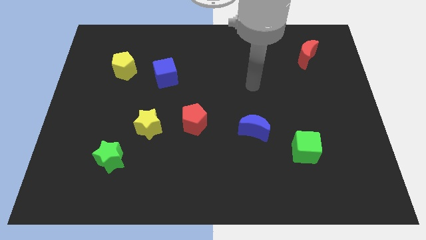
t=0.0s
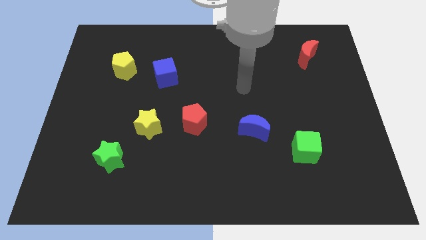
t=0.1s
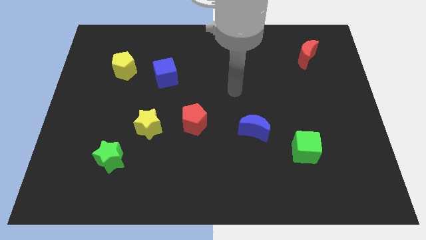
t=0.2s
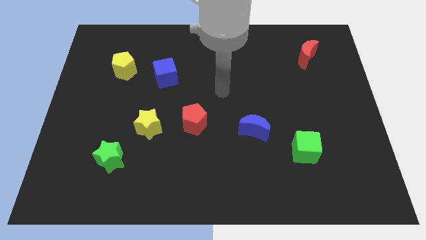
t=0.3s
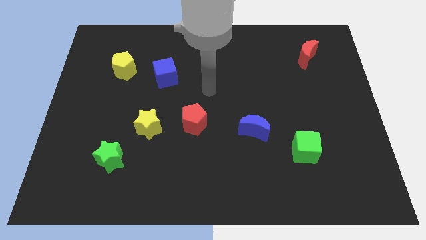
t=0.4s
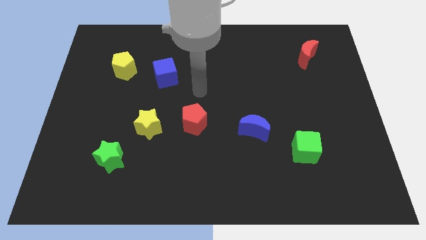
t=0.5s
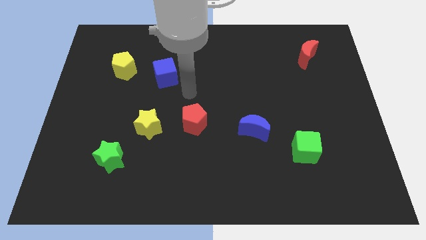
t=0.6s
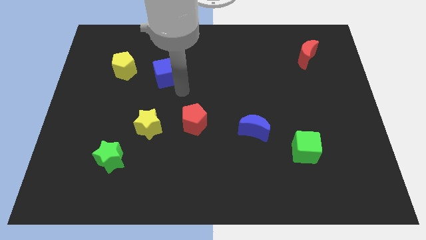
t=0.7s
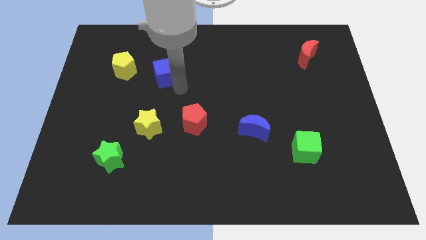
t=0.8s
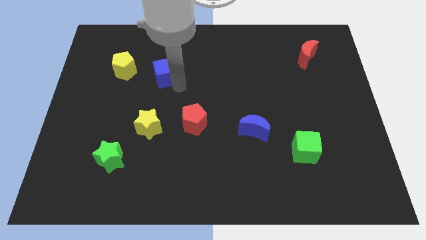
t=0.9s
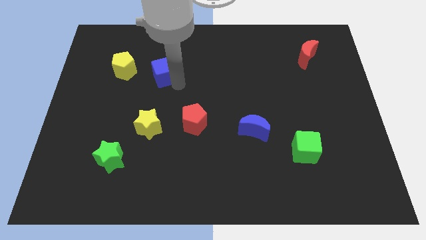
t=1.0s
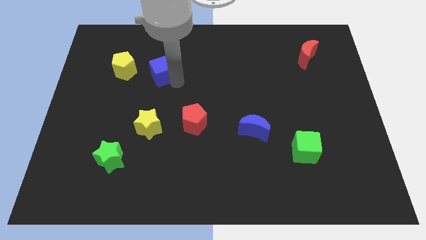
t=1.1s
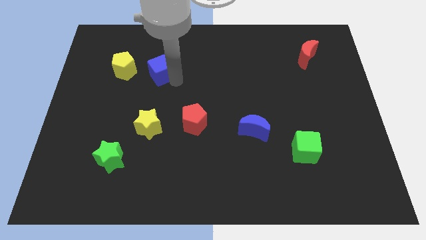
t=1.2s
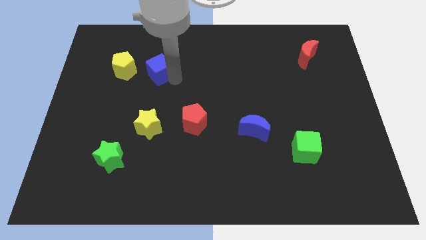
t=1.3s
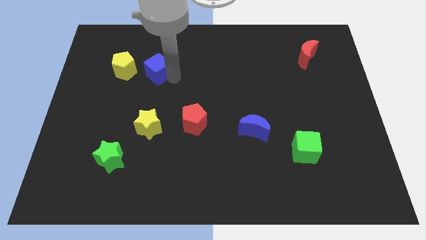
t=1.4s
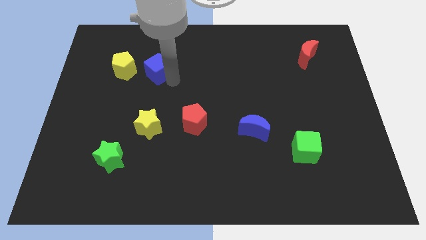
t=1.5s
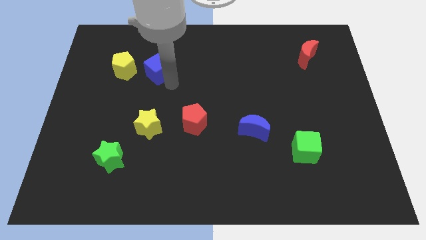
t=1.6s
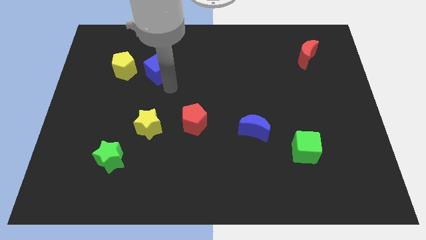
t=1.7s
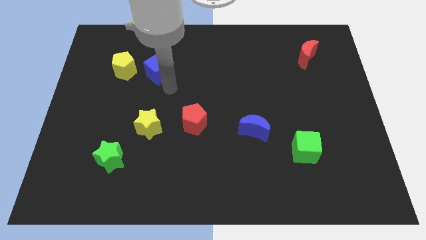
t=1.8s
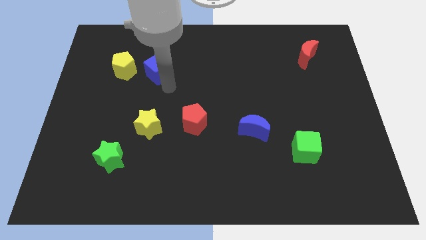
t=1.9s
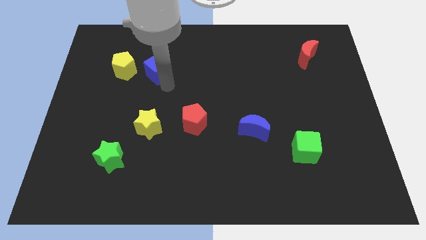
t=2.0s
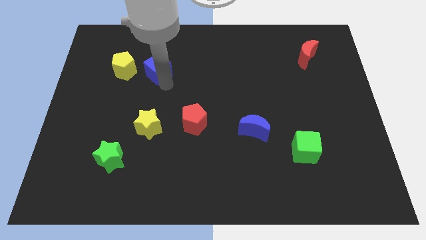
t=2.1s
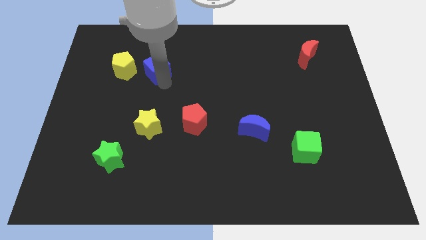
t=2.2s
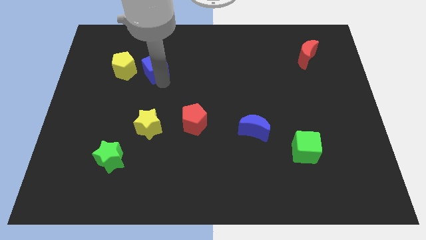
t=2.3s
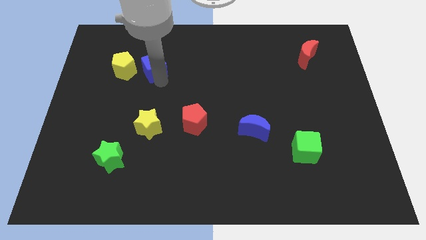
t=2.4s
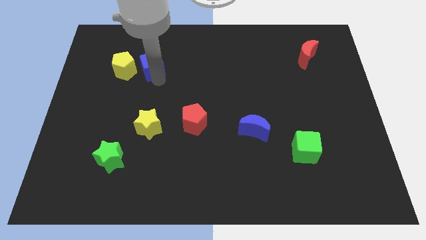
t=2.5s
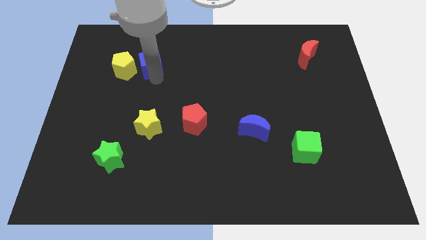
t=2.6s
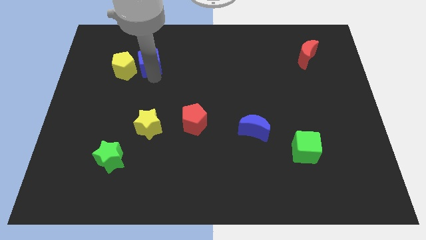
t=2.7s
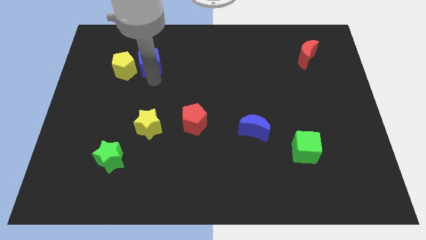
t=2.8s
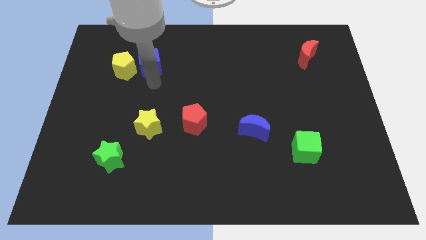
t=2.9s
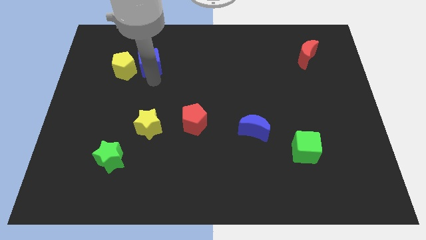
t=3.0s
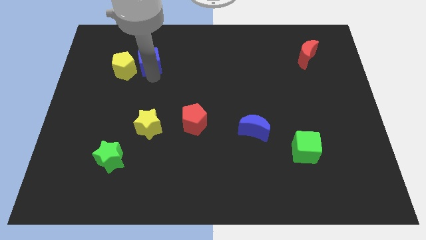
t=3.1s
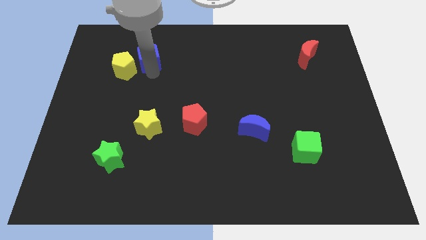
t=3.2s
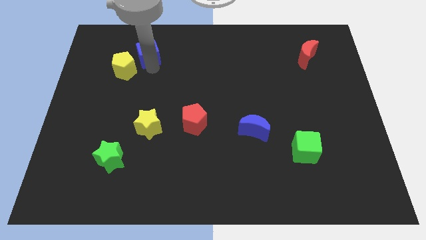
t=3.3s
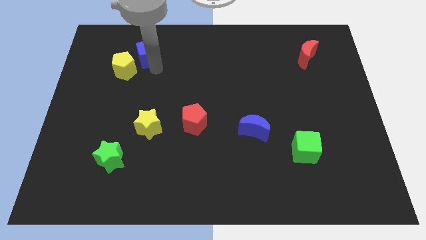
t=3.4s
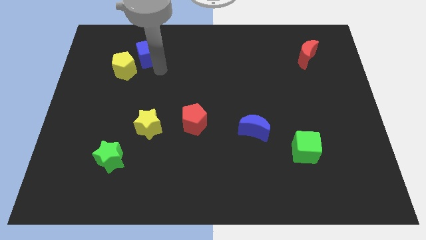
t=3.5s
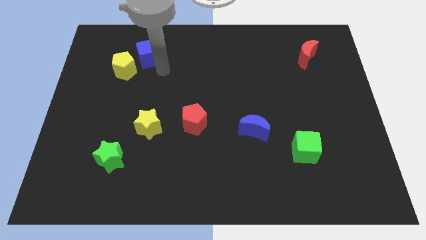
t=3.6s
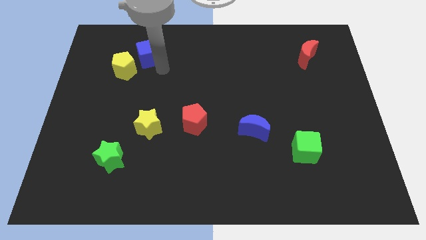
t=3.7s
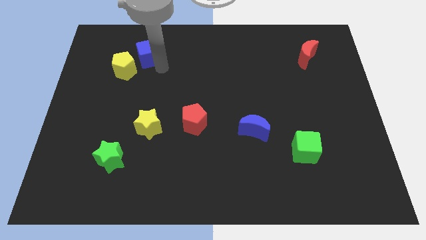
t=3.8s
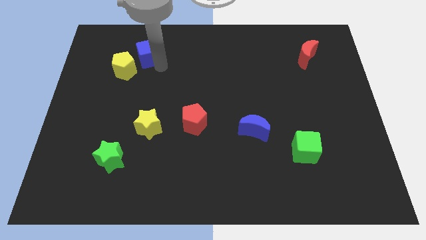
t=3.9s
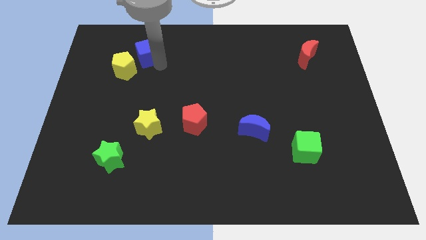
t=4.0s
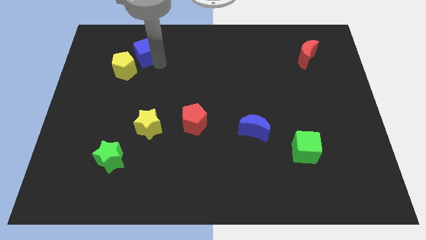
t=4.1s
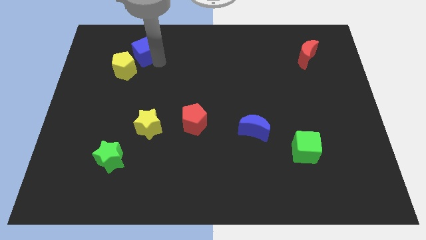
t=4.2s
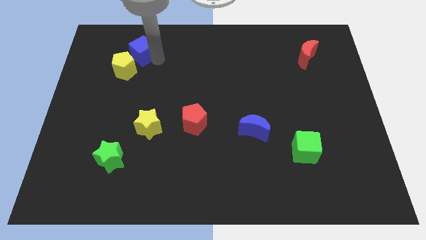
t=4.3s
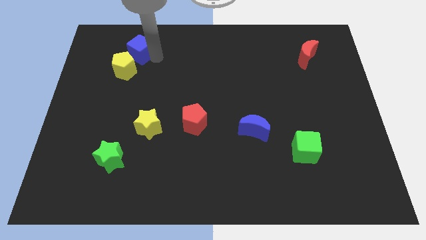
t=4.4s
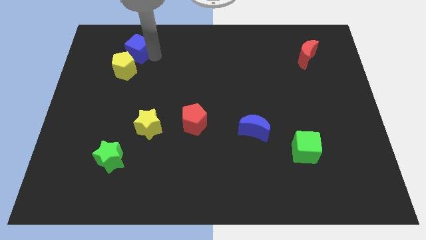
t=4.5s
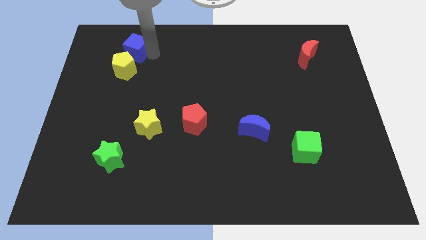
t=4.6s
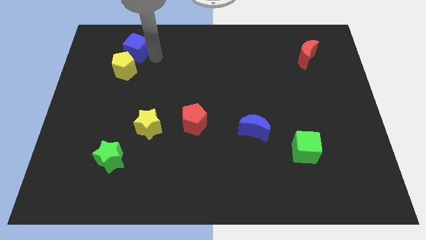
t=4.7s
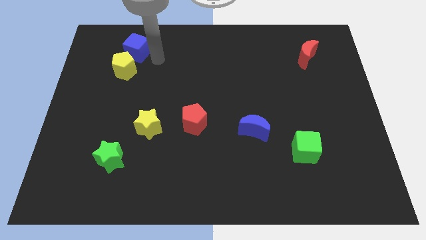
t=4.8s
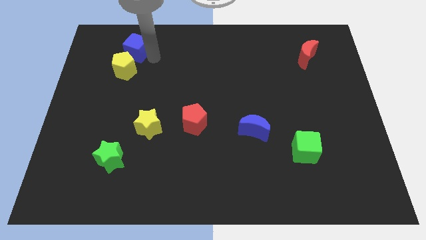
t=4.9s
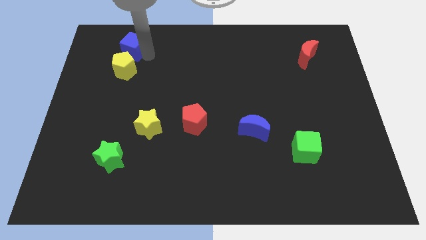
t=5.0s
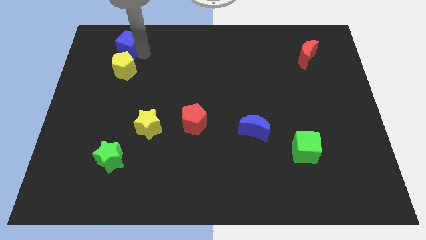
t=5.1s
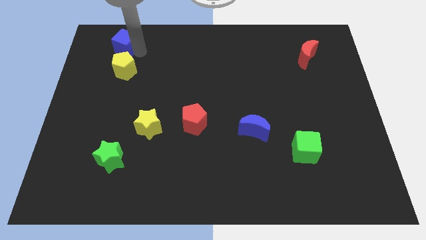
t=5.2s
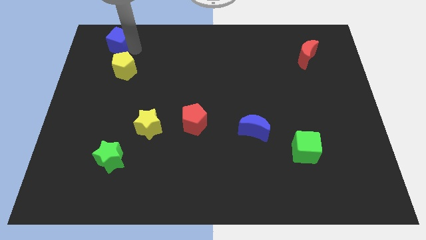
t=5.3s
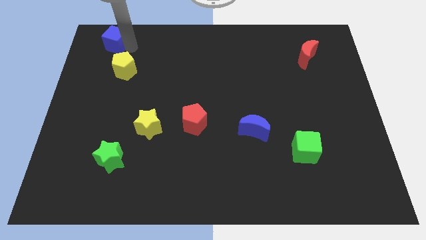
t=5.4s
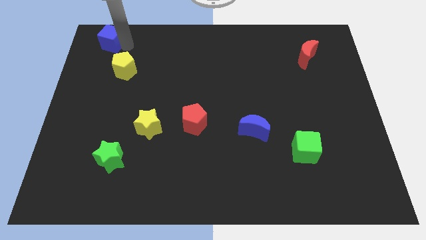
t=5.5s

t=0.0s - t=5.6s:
push the blue cube to the top left of the board

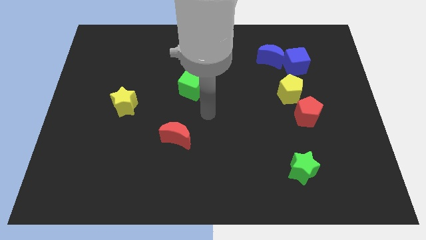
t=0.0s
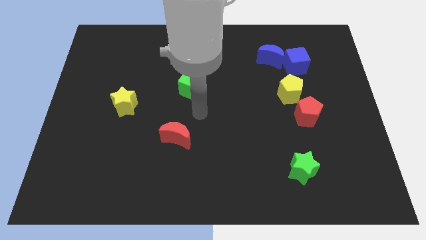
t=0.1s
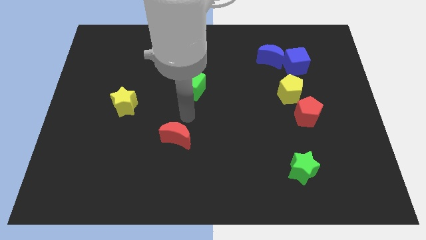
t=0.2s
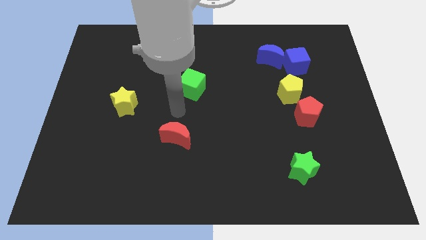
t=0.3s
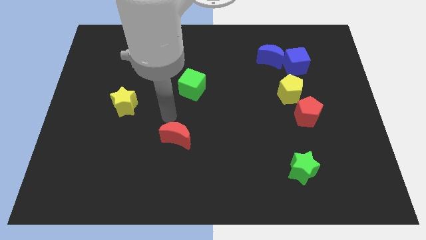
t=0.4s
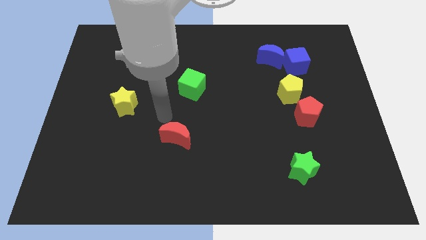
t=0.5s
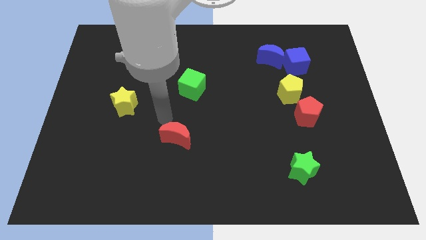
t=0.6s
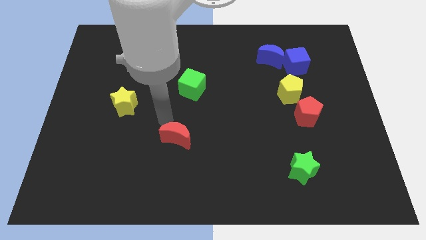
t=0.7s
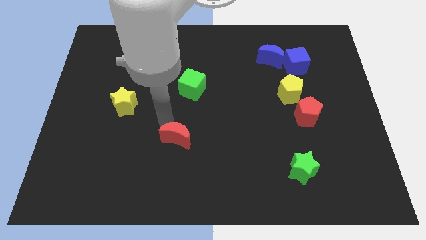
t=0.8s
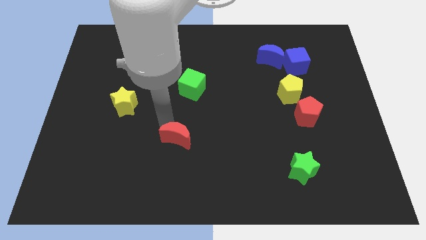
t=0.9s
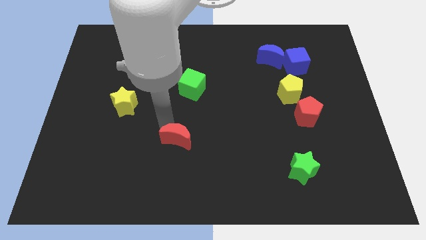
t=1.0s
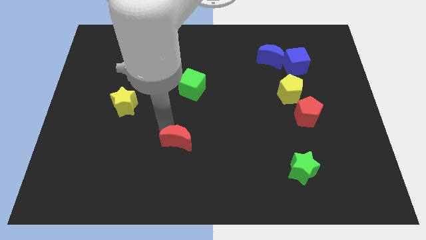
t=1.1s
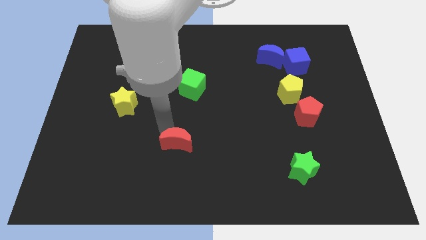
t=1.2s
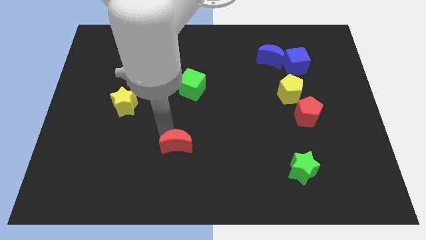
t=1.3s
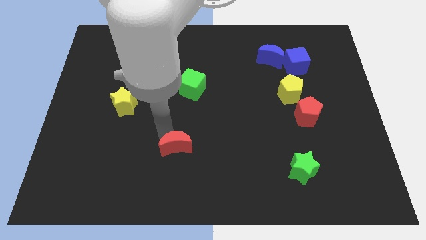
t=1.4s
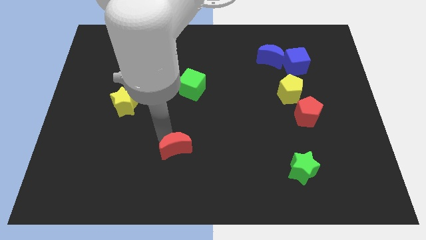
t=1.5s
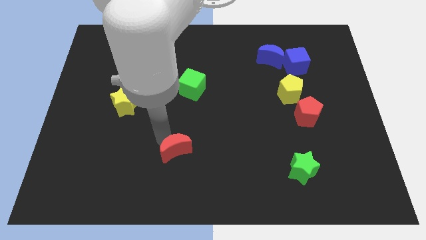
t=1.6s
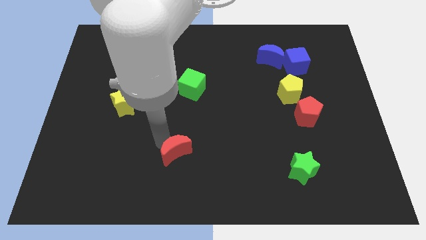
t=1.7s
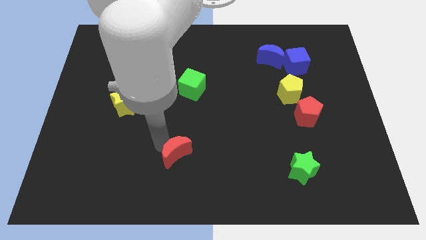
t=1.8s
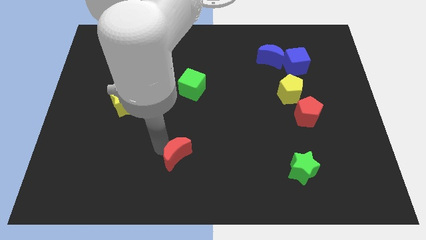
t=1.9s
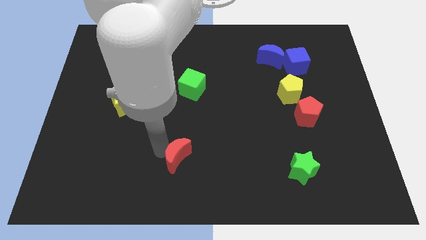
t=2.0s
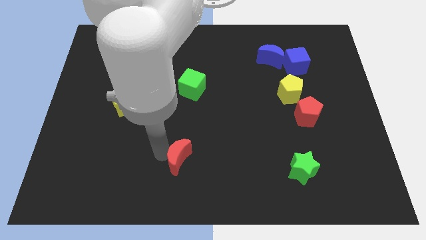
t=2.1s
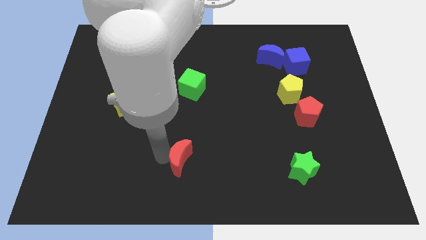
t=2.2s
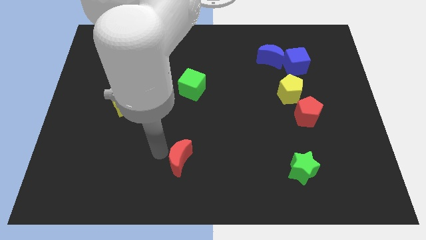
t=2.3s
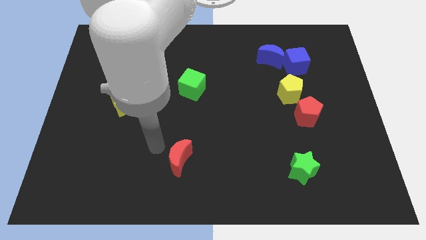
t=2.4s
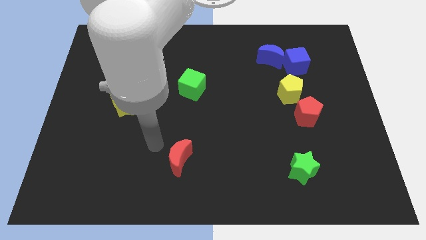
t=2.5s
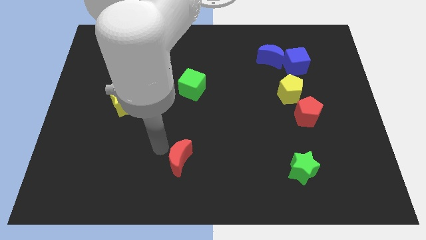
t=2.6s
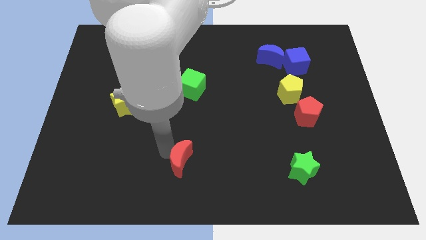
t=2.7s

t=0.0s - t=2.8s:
push the red moon to the bottom
